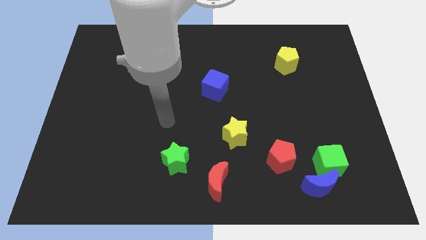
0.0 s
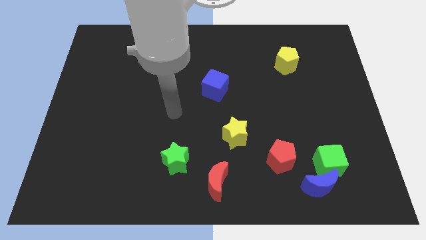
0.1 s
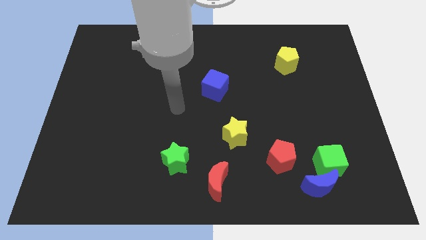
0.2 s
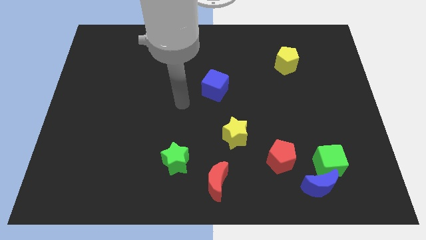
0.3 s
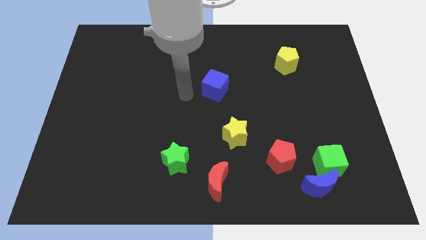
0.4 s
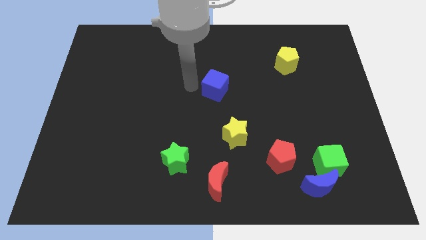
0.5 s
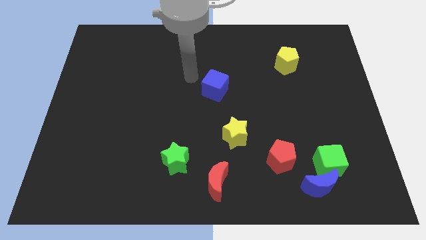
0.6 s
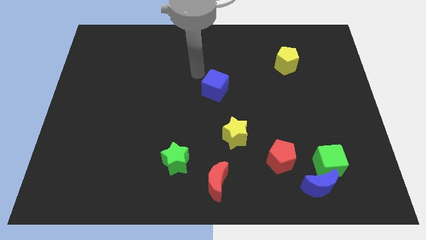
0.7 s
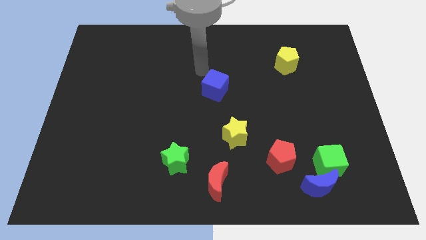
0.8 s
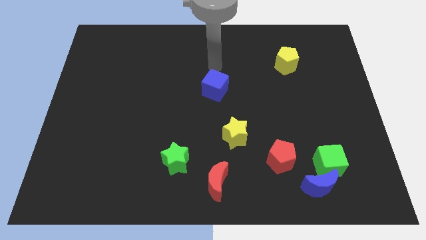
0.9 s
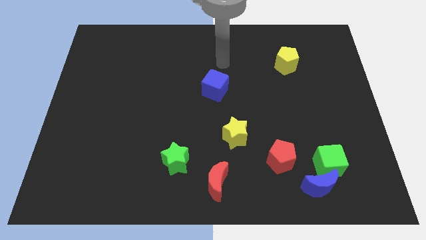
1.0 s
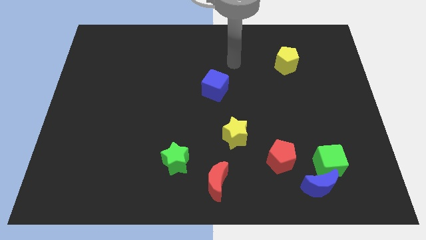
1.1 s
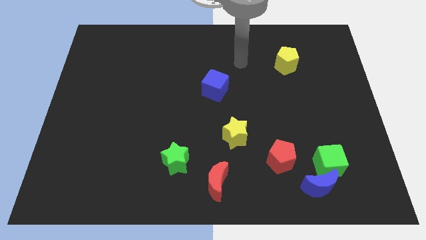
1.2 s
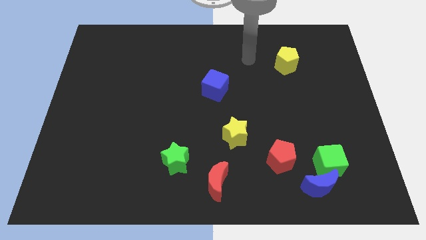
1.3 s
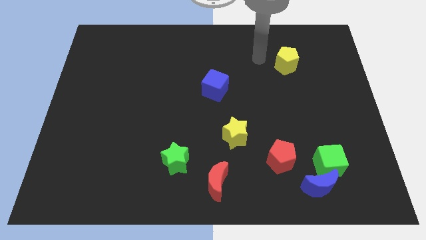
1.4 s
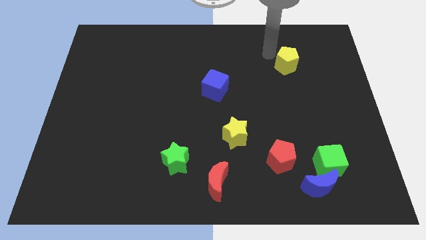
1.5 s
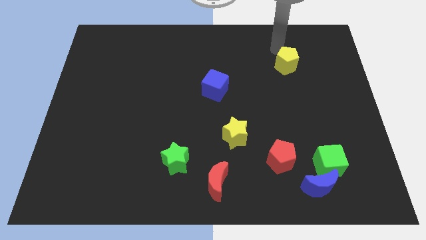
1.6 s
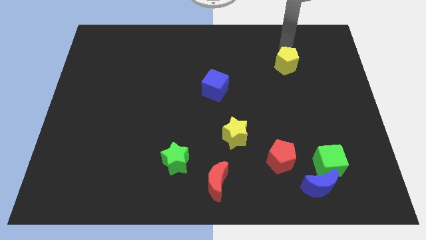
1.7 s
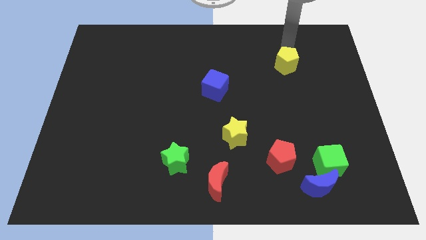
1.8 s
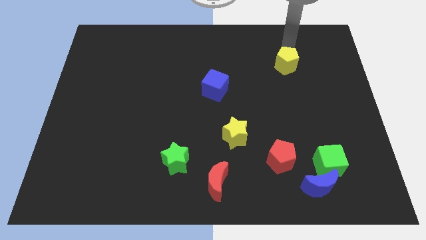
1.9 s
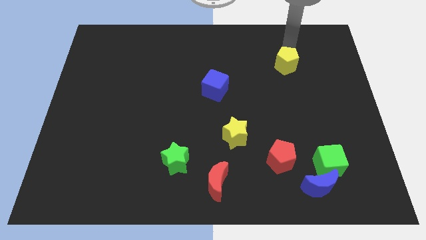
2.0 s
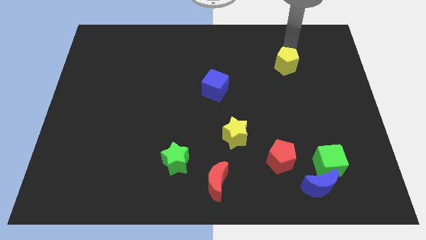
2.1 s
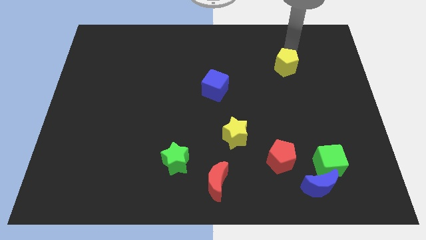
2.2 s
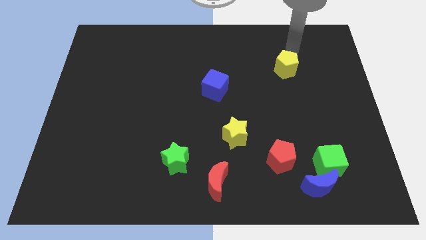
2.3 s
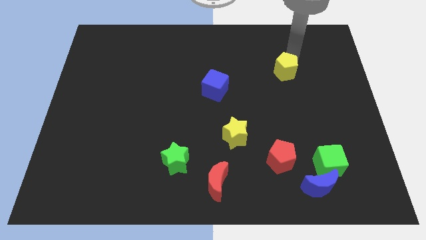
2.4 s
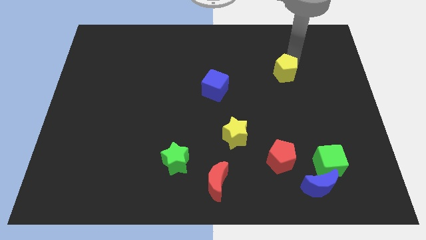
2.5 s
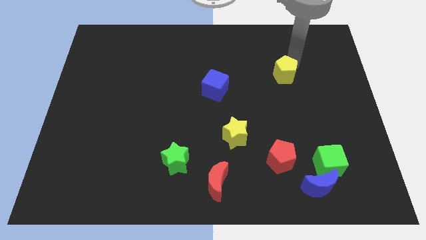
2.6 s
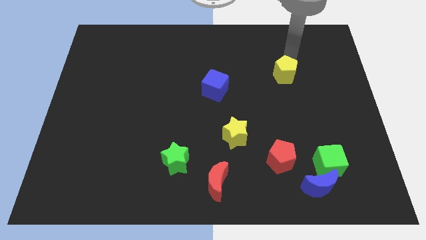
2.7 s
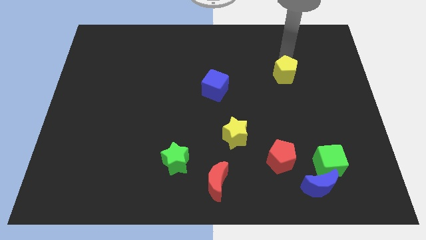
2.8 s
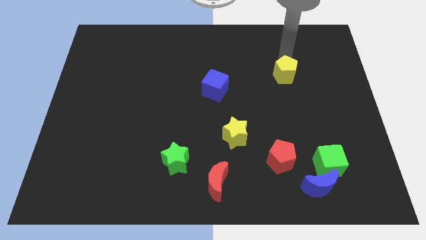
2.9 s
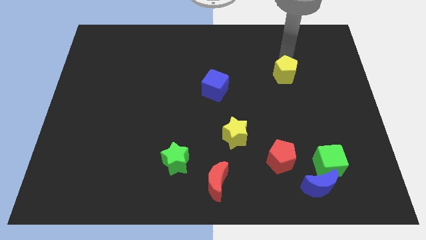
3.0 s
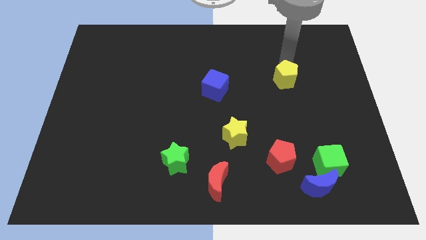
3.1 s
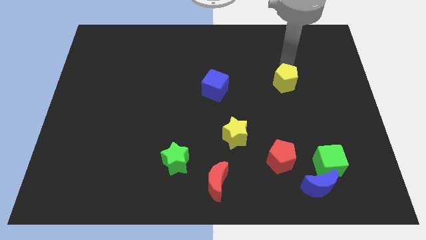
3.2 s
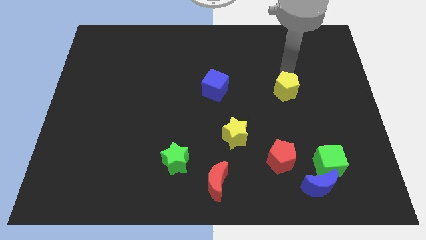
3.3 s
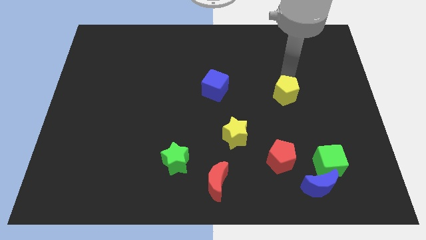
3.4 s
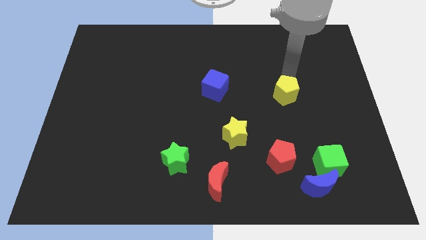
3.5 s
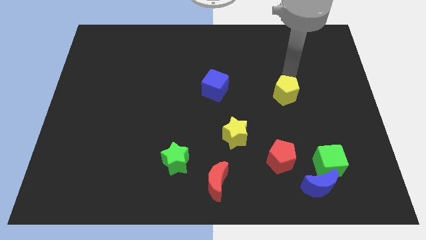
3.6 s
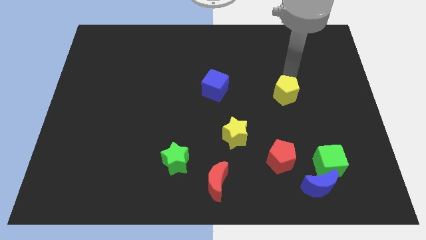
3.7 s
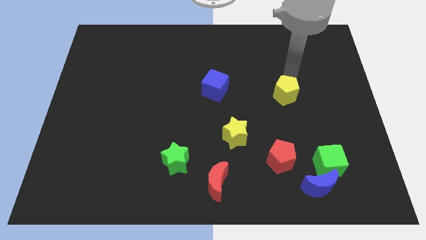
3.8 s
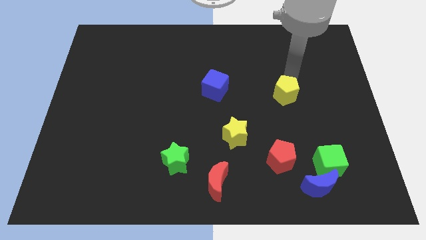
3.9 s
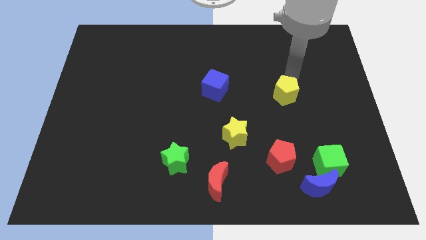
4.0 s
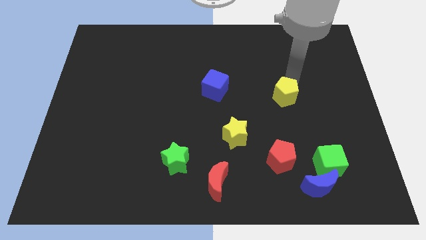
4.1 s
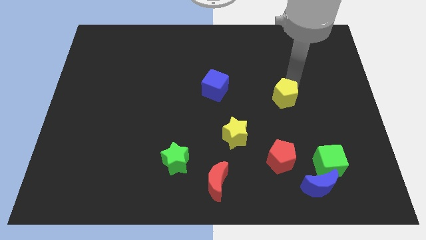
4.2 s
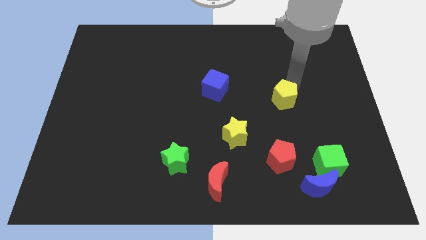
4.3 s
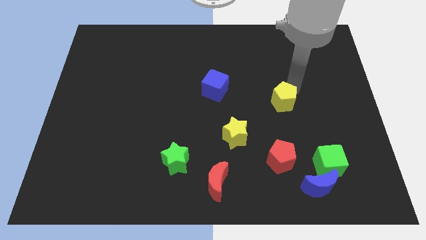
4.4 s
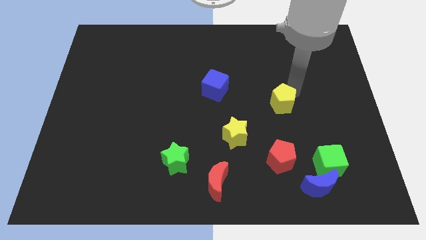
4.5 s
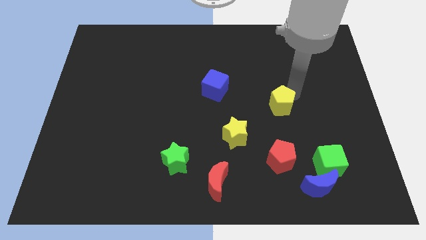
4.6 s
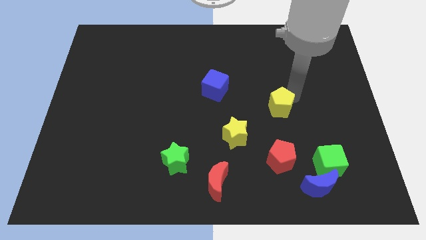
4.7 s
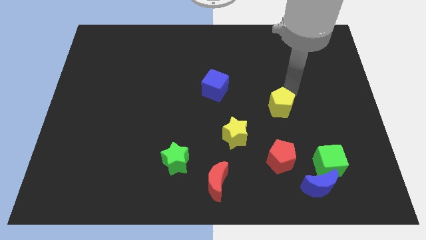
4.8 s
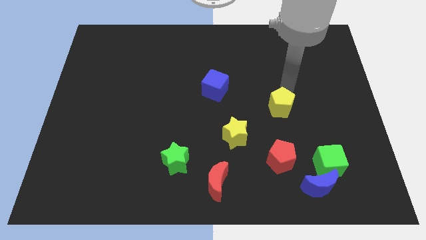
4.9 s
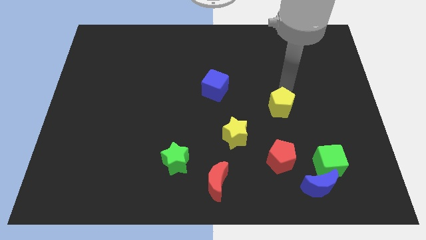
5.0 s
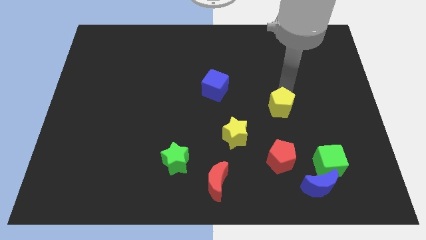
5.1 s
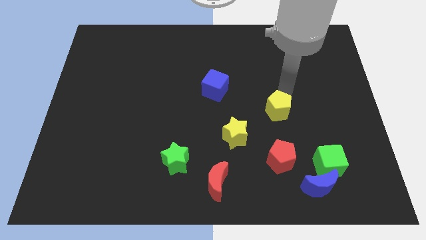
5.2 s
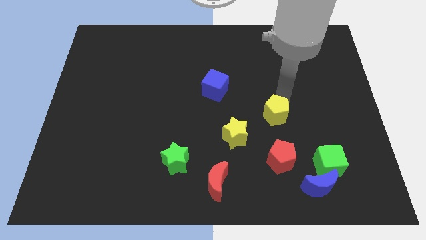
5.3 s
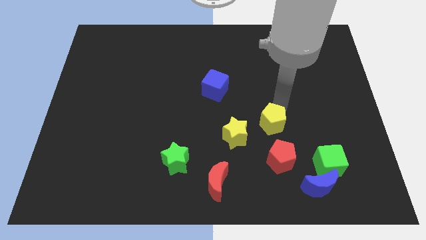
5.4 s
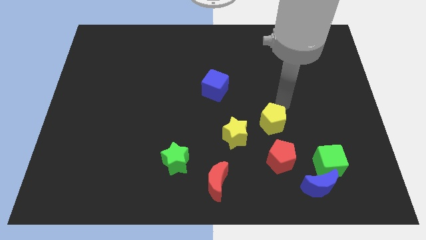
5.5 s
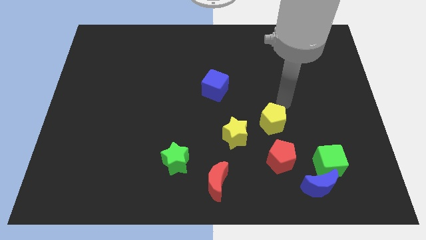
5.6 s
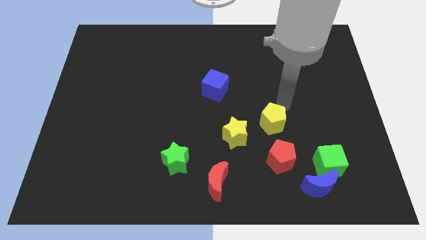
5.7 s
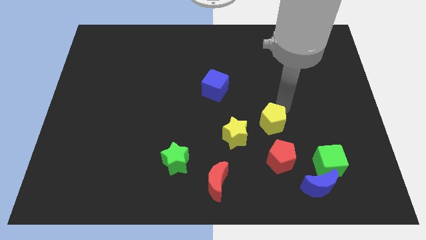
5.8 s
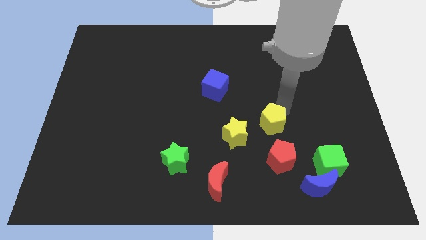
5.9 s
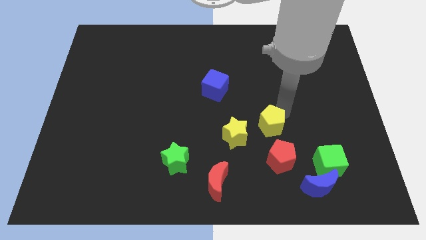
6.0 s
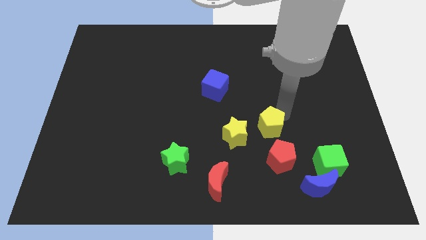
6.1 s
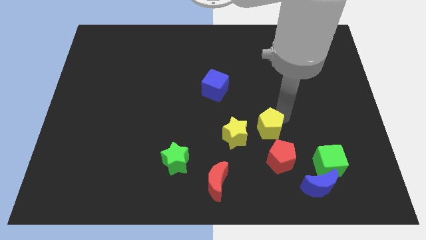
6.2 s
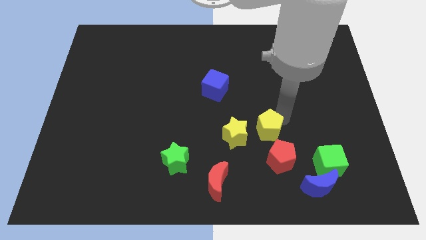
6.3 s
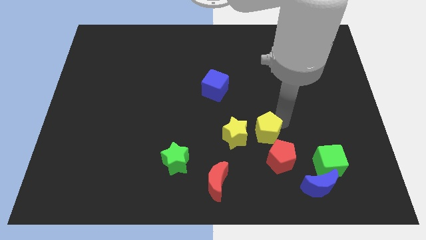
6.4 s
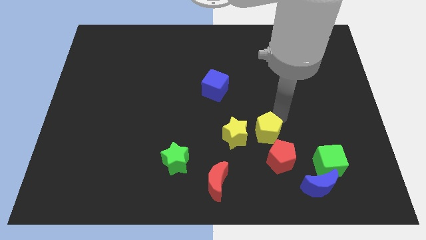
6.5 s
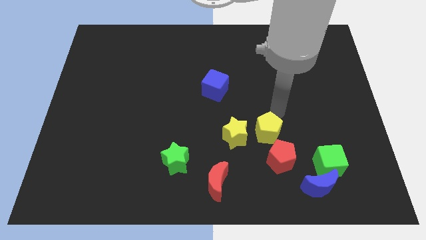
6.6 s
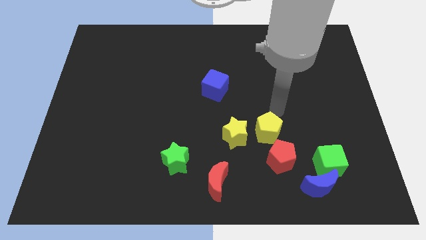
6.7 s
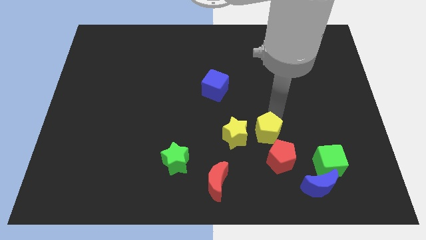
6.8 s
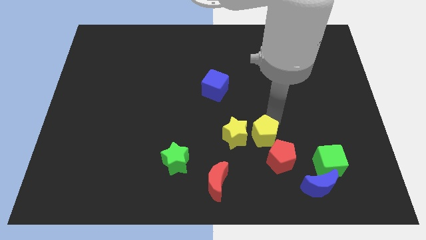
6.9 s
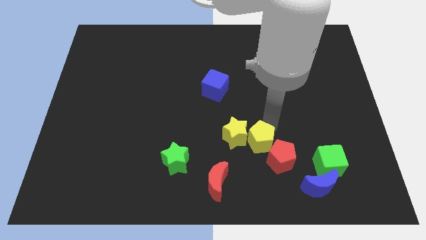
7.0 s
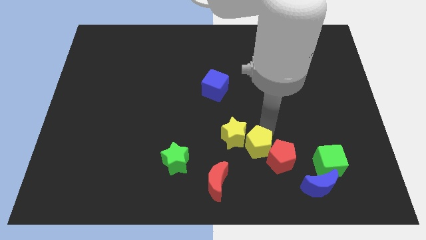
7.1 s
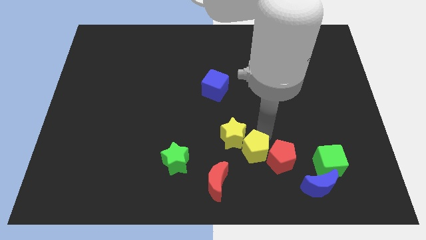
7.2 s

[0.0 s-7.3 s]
put the yellow pentagon left of the green cube

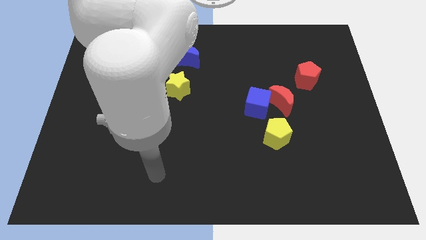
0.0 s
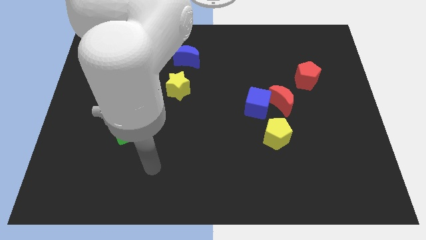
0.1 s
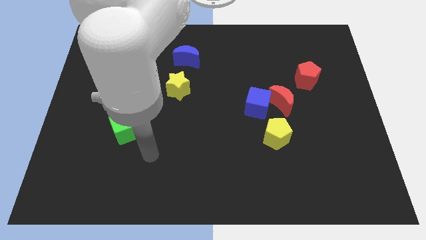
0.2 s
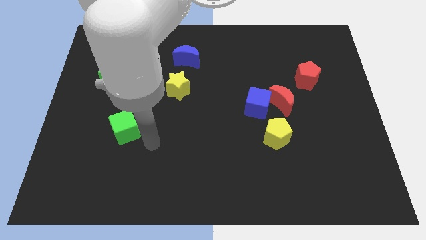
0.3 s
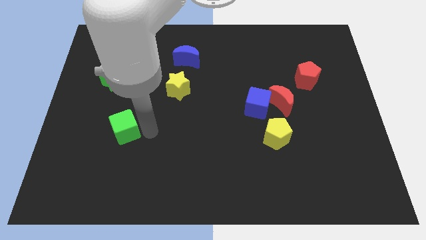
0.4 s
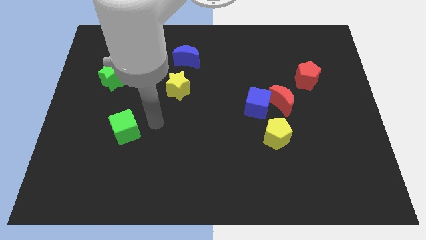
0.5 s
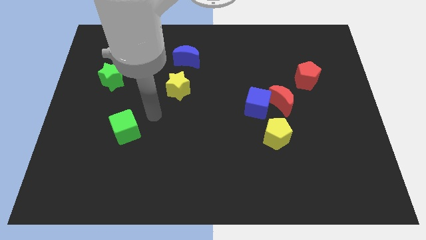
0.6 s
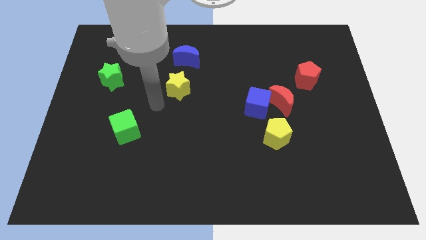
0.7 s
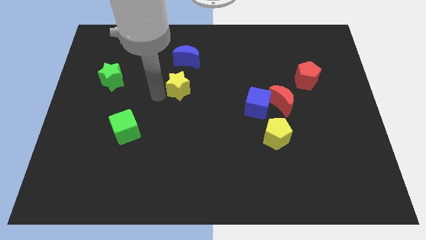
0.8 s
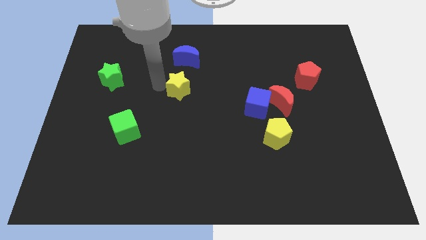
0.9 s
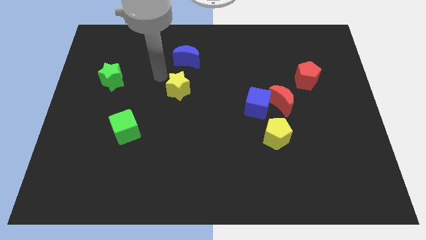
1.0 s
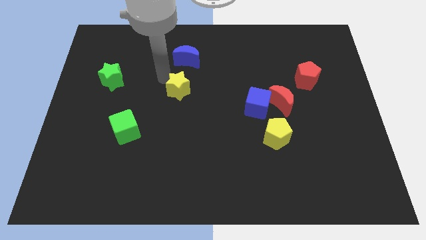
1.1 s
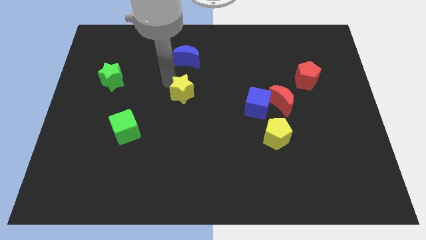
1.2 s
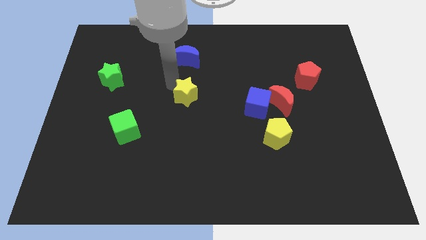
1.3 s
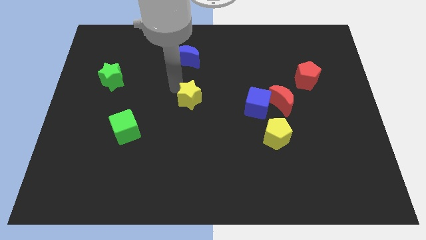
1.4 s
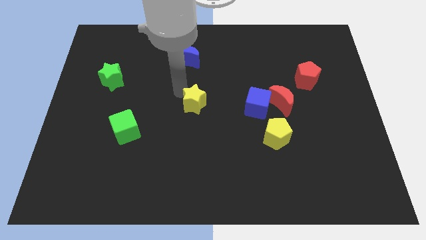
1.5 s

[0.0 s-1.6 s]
push the yellow star just left of the blue cube
